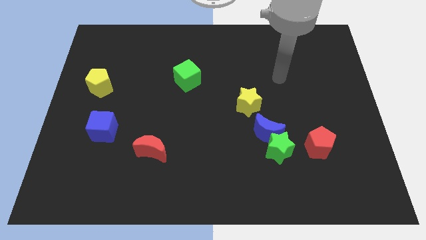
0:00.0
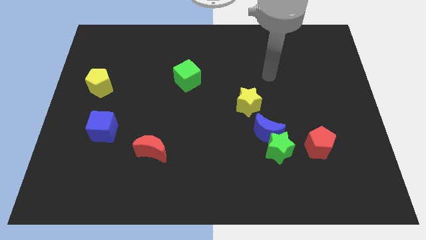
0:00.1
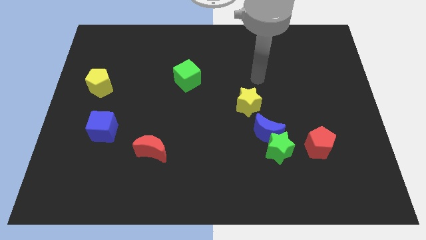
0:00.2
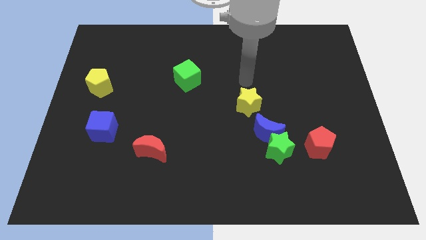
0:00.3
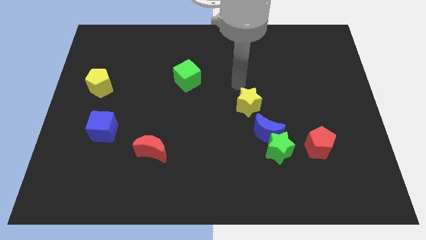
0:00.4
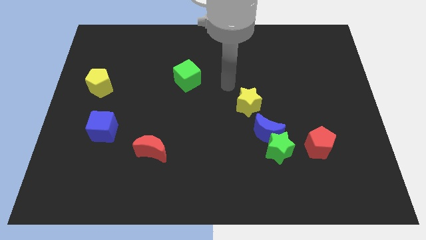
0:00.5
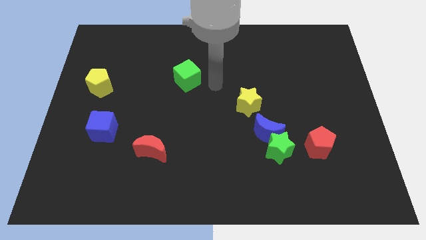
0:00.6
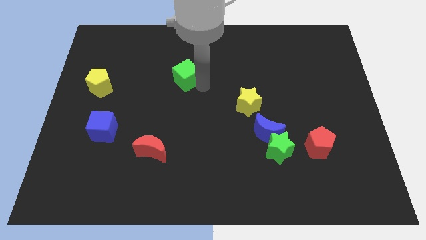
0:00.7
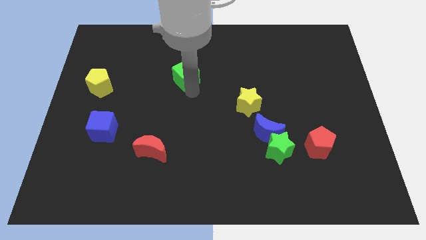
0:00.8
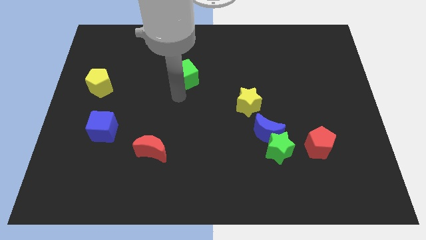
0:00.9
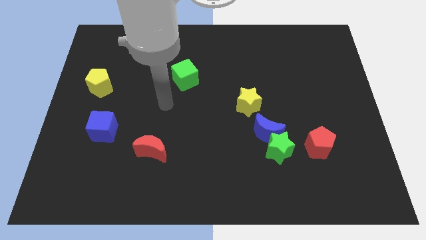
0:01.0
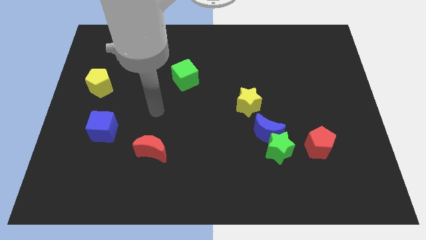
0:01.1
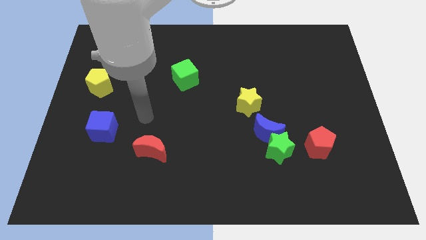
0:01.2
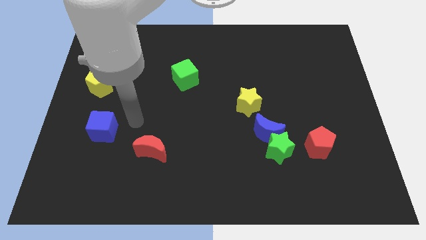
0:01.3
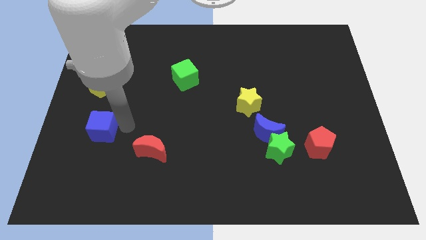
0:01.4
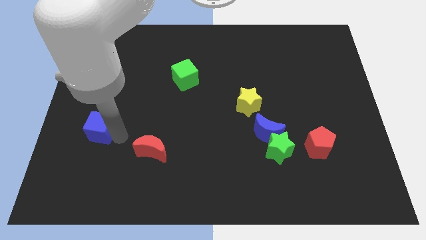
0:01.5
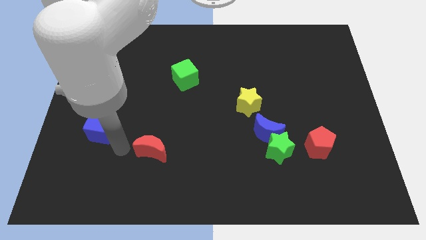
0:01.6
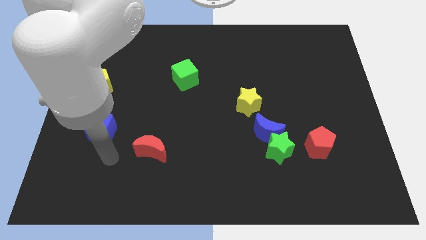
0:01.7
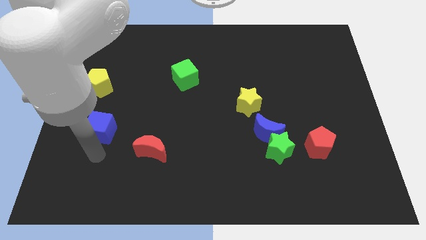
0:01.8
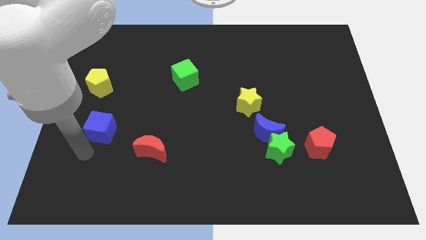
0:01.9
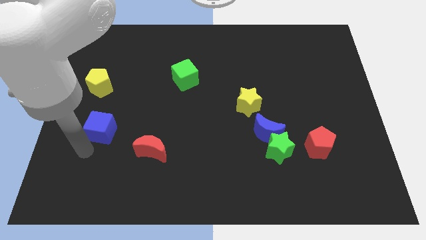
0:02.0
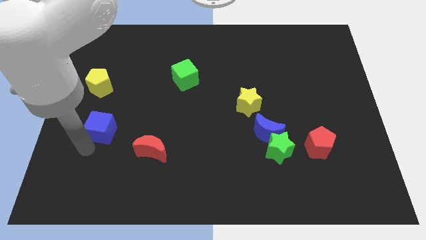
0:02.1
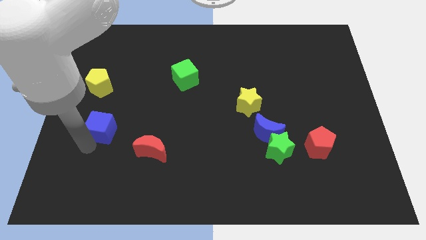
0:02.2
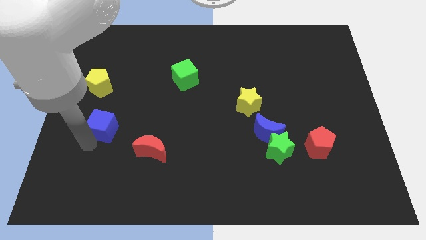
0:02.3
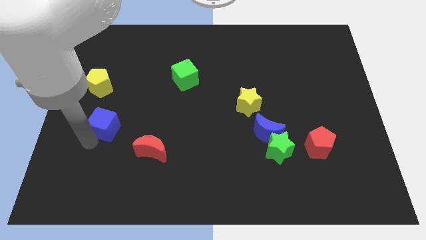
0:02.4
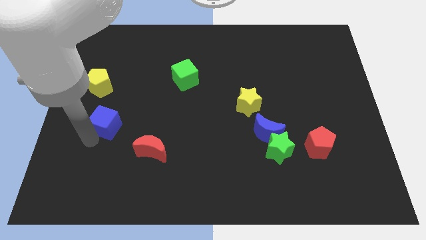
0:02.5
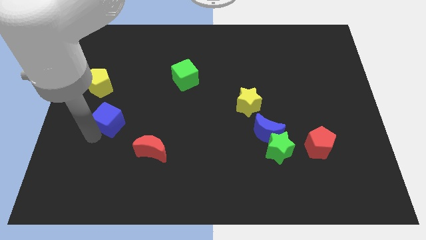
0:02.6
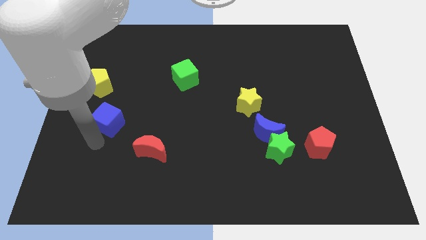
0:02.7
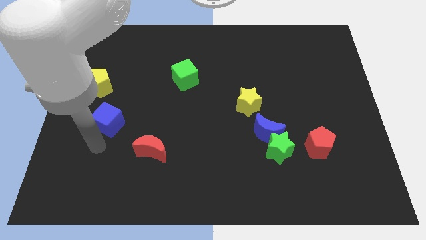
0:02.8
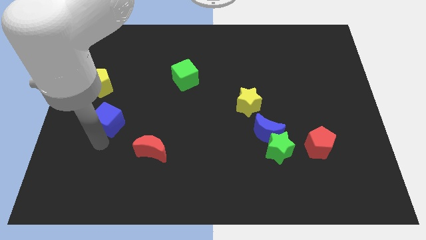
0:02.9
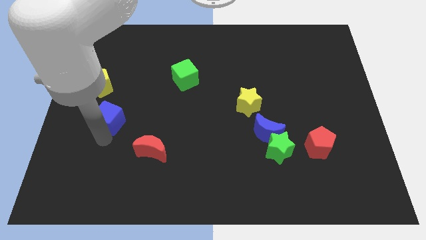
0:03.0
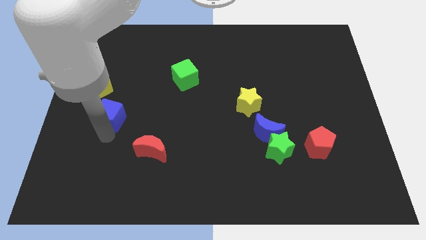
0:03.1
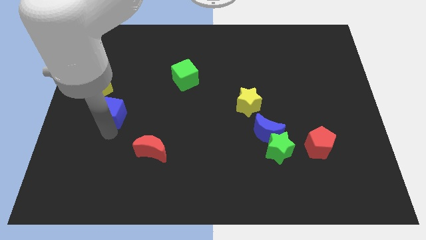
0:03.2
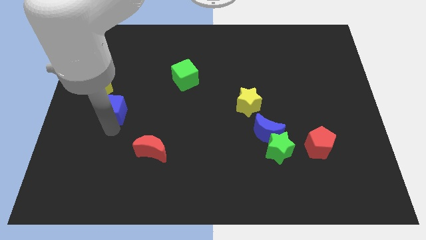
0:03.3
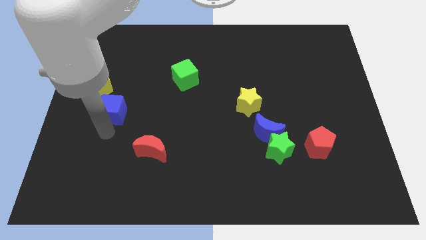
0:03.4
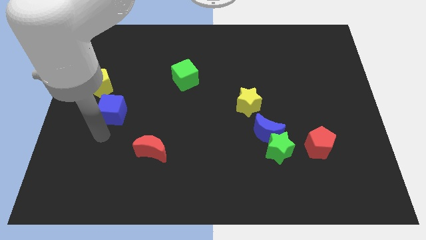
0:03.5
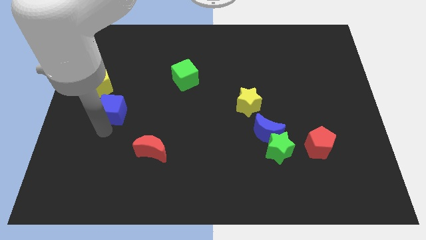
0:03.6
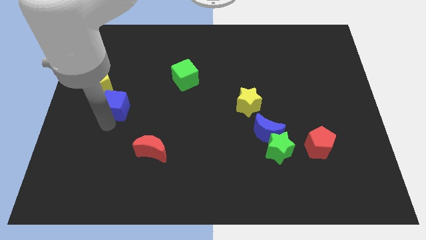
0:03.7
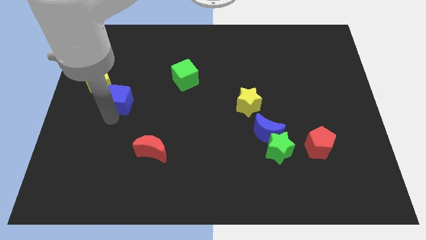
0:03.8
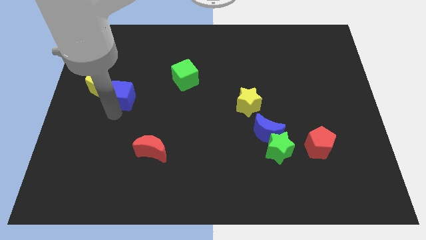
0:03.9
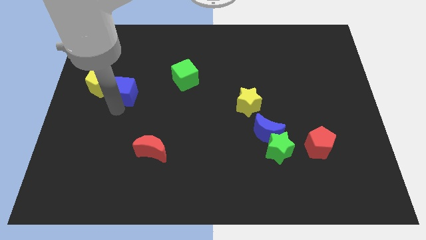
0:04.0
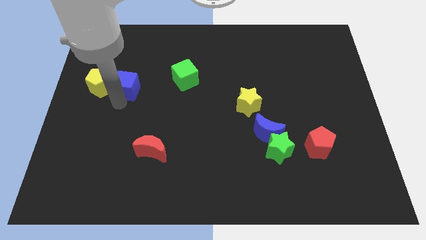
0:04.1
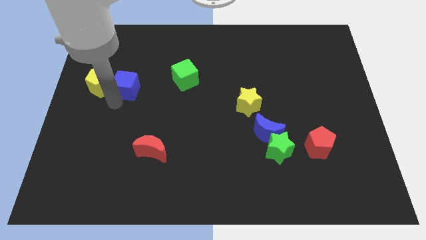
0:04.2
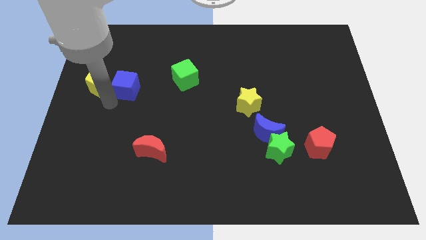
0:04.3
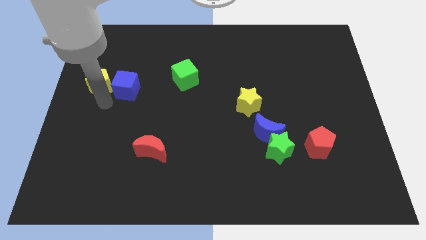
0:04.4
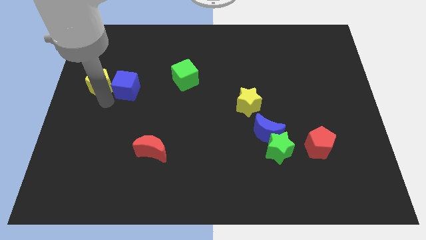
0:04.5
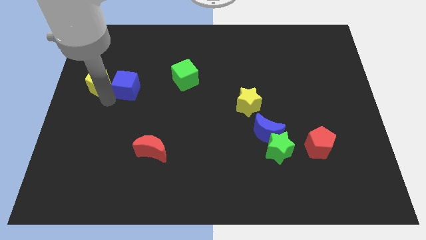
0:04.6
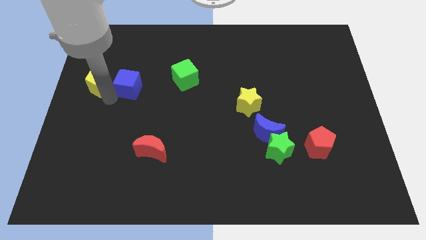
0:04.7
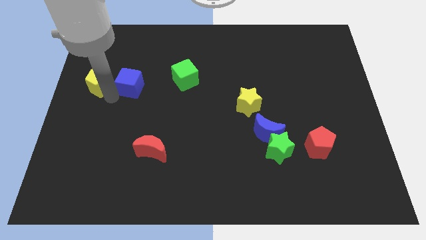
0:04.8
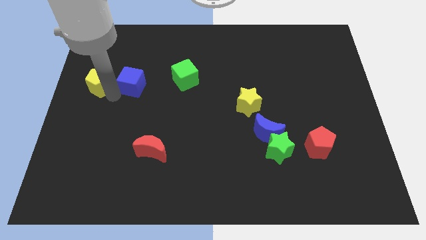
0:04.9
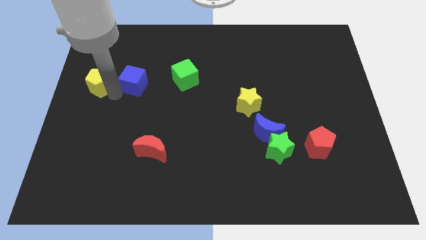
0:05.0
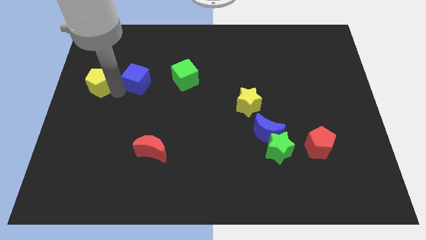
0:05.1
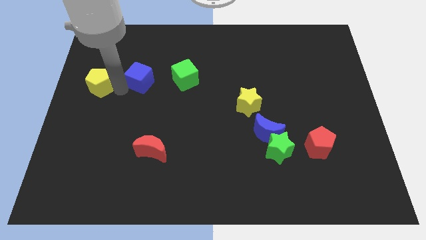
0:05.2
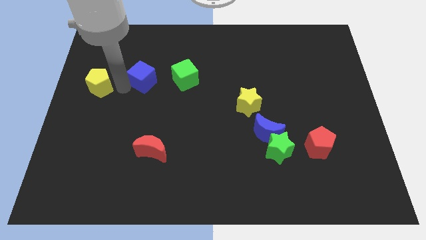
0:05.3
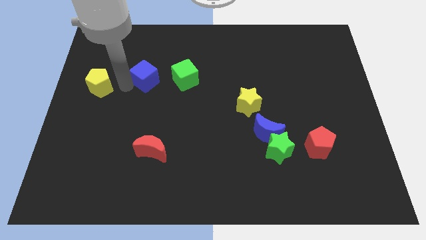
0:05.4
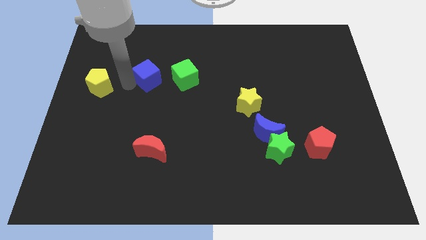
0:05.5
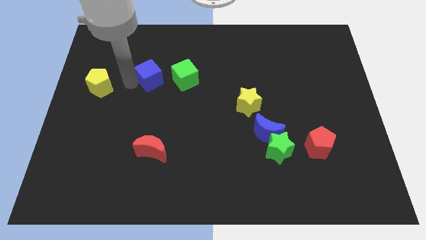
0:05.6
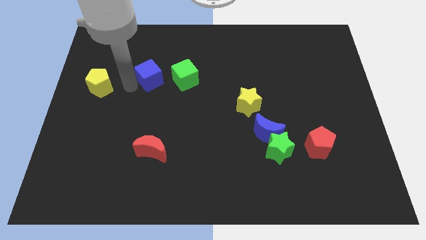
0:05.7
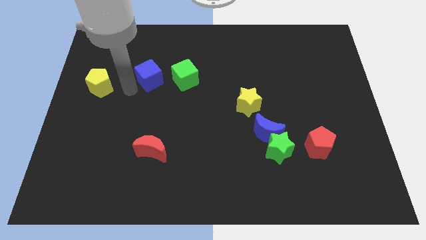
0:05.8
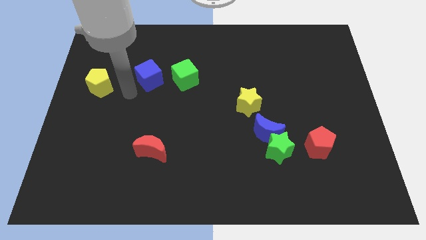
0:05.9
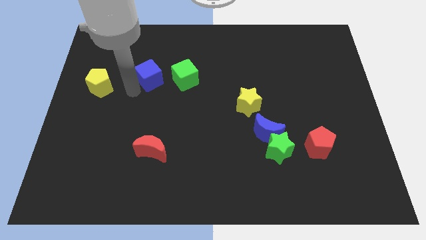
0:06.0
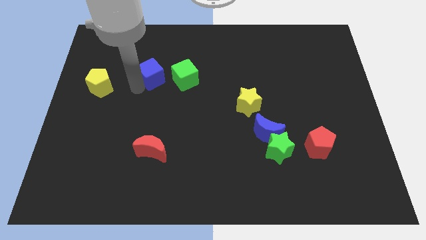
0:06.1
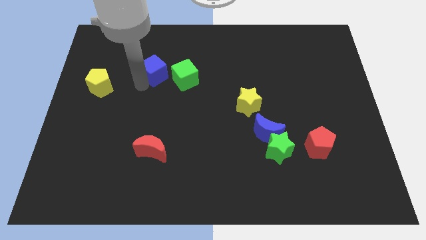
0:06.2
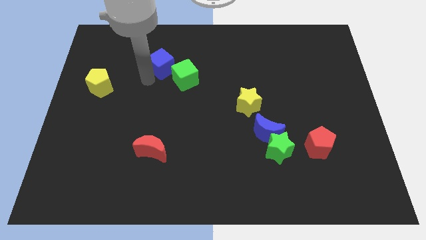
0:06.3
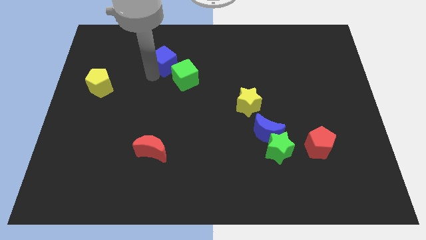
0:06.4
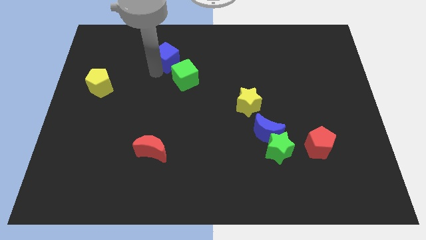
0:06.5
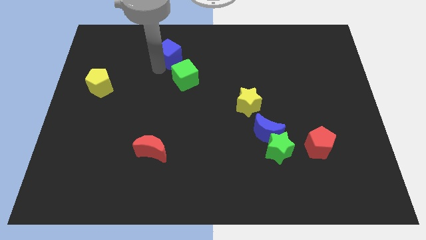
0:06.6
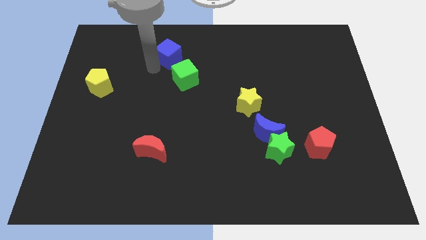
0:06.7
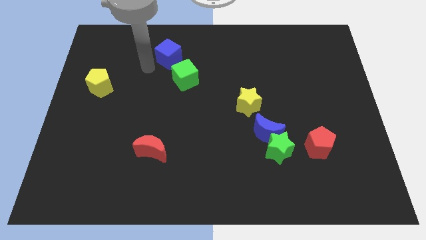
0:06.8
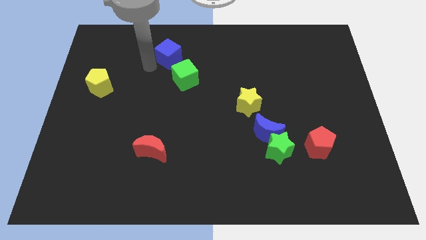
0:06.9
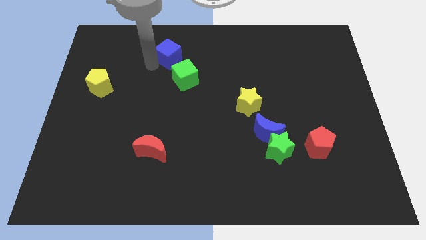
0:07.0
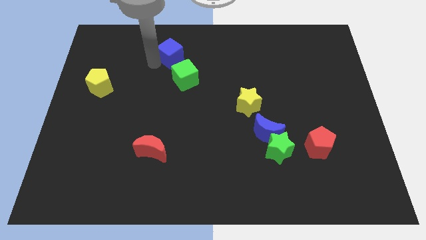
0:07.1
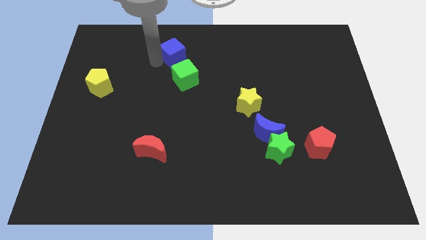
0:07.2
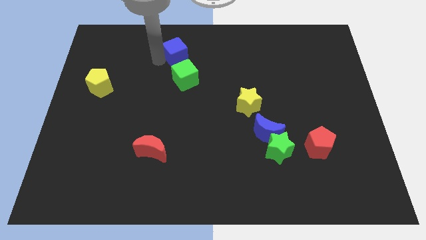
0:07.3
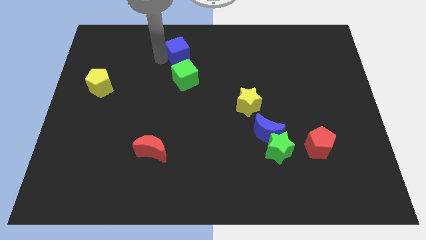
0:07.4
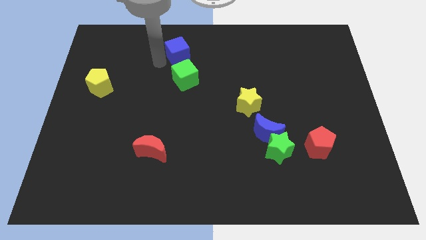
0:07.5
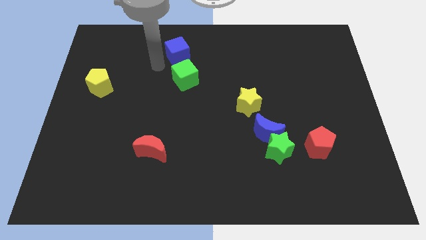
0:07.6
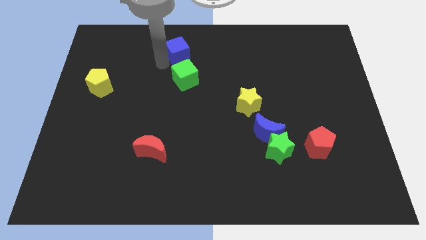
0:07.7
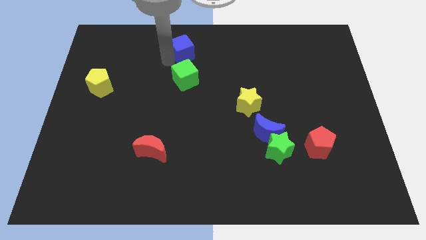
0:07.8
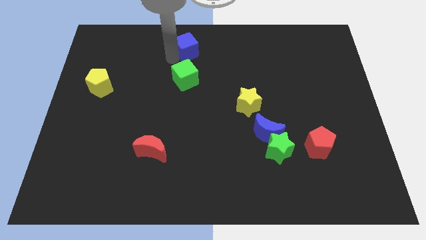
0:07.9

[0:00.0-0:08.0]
move the blue cube to the towards your base
